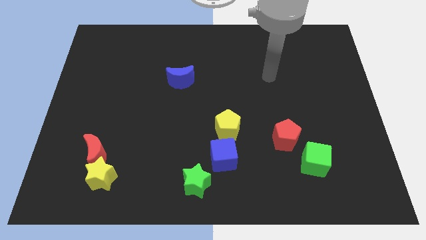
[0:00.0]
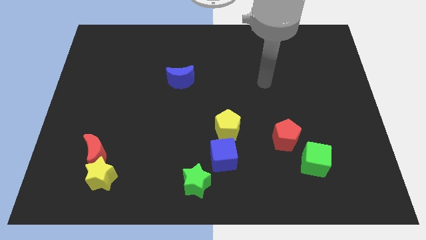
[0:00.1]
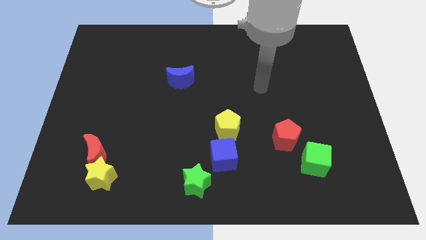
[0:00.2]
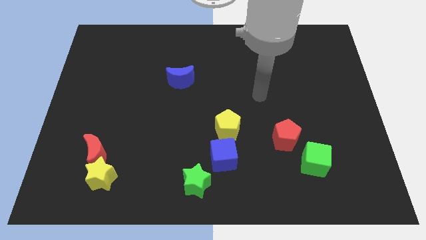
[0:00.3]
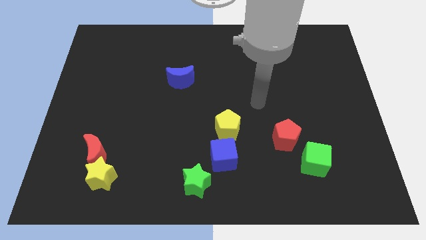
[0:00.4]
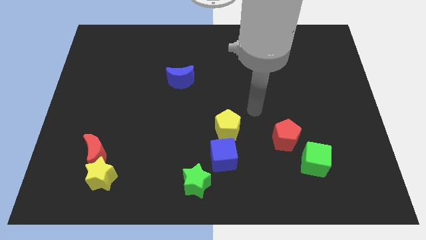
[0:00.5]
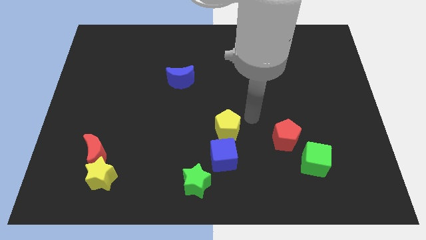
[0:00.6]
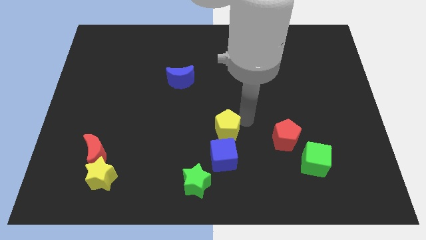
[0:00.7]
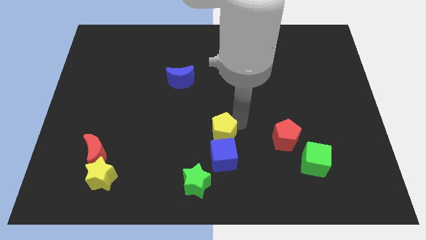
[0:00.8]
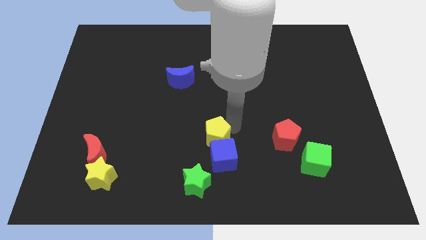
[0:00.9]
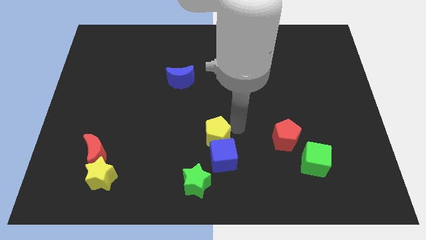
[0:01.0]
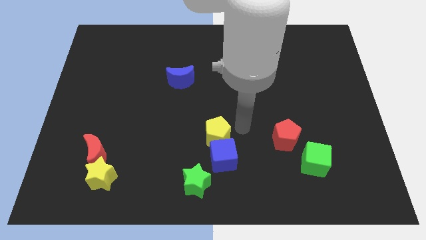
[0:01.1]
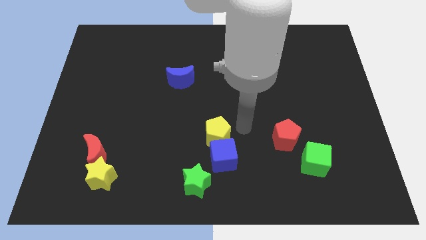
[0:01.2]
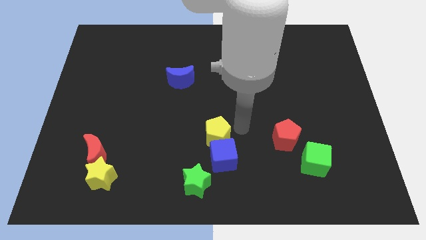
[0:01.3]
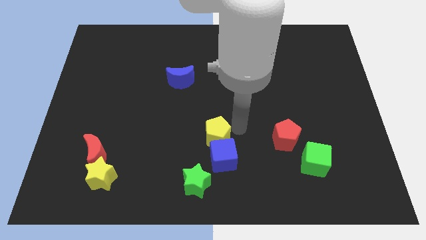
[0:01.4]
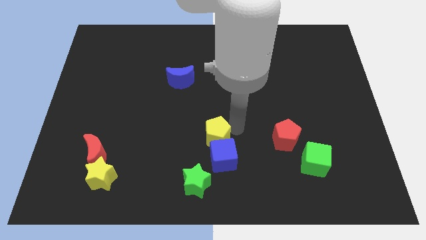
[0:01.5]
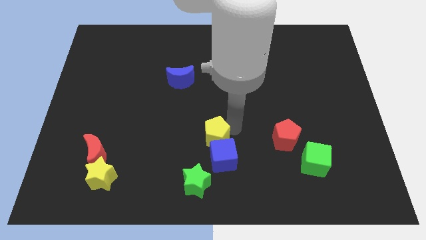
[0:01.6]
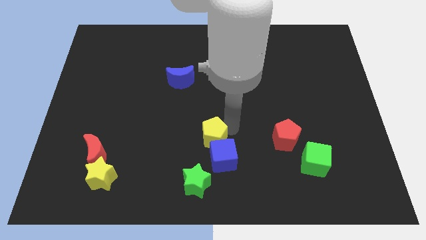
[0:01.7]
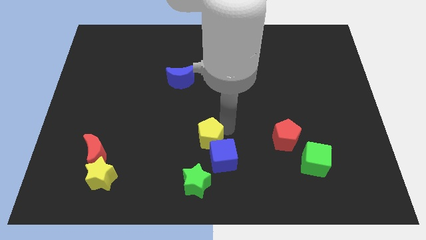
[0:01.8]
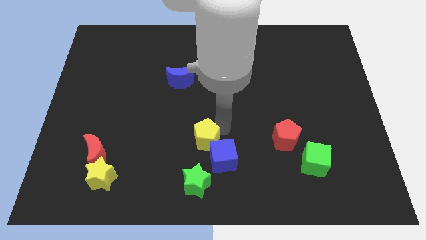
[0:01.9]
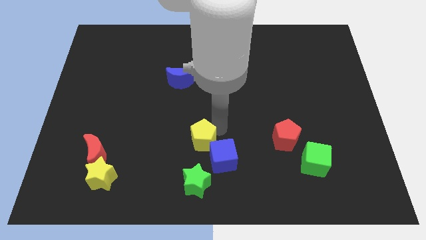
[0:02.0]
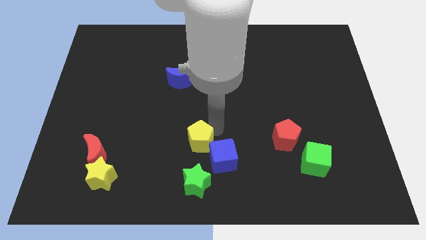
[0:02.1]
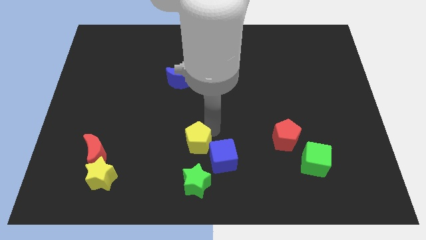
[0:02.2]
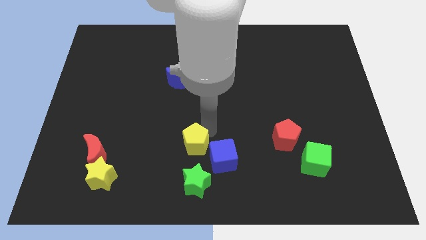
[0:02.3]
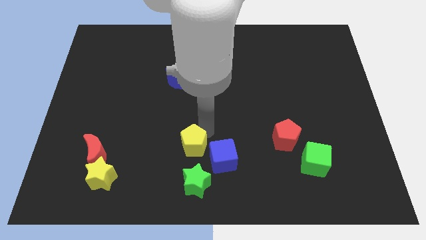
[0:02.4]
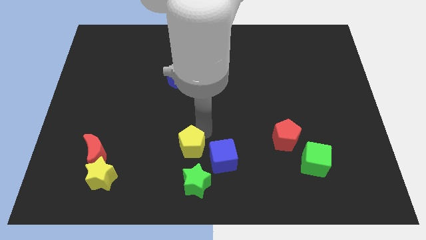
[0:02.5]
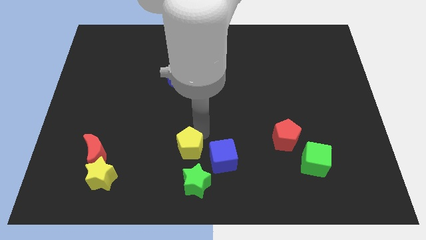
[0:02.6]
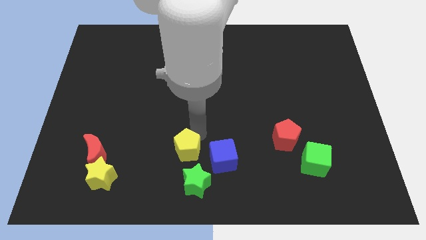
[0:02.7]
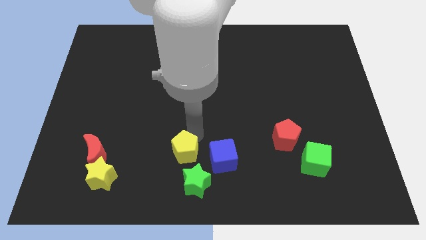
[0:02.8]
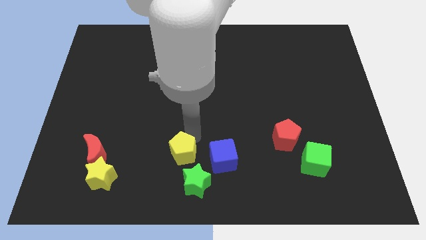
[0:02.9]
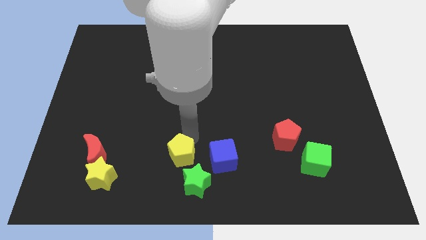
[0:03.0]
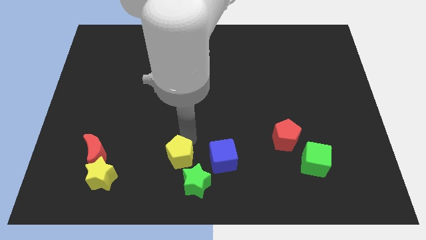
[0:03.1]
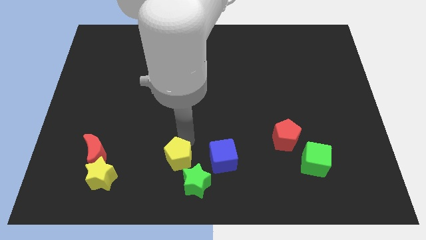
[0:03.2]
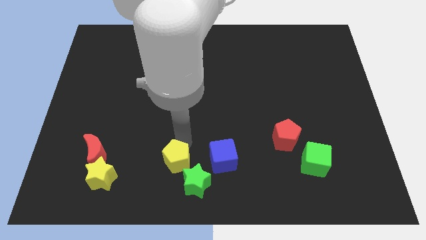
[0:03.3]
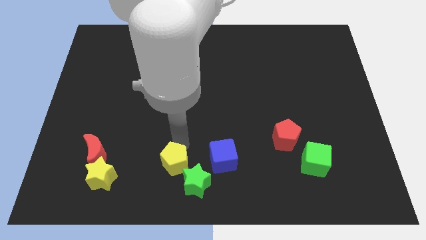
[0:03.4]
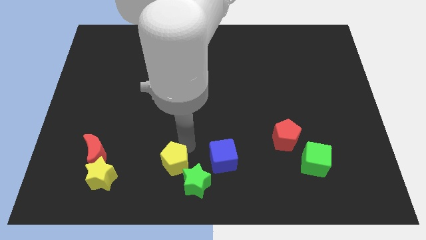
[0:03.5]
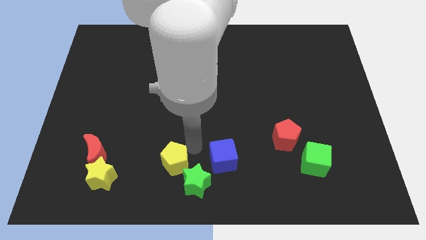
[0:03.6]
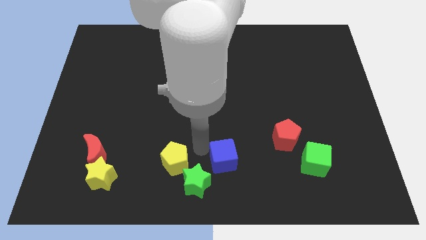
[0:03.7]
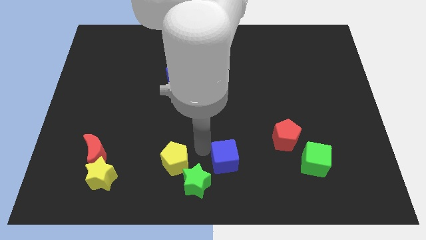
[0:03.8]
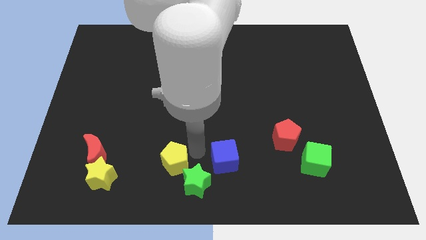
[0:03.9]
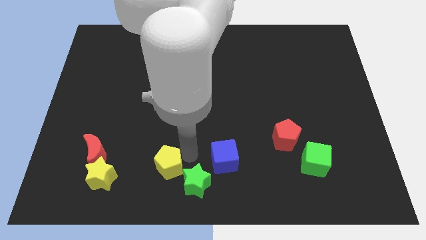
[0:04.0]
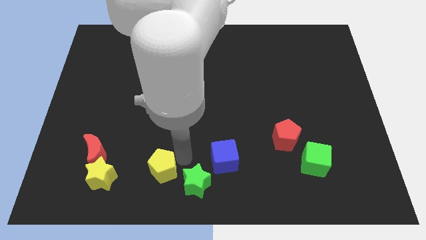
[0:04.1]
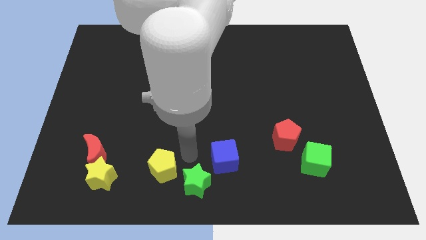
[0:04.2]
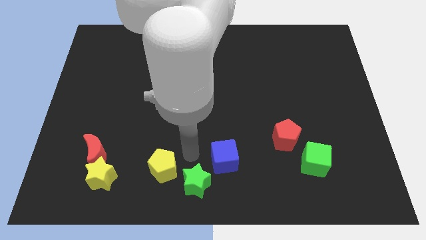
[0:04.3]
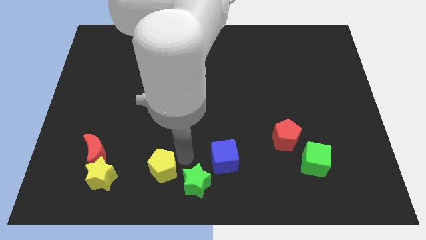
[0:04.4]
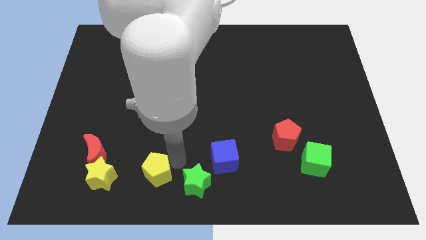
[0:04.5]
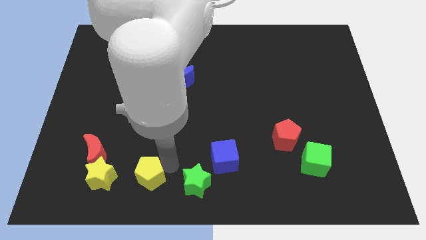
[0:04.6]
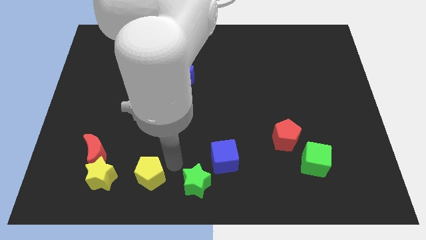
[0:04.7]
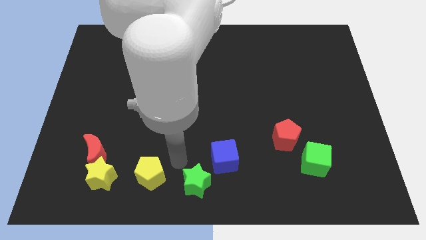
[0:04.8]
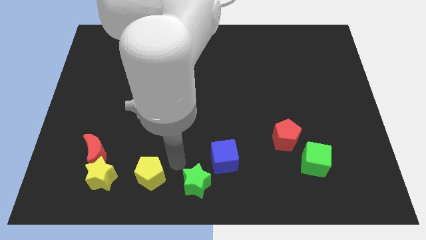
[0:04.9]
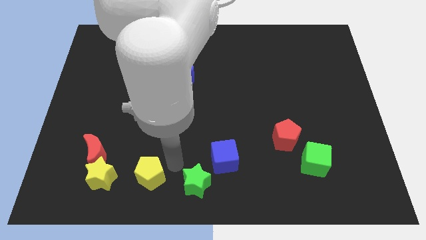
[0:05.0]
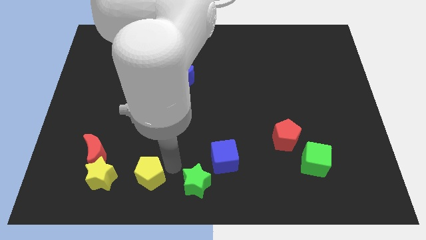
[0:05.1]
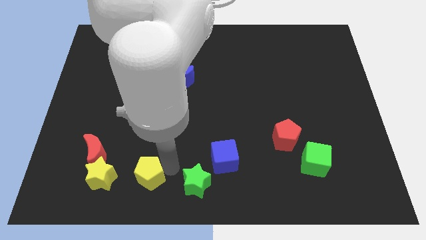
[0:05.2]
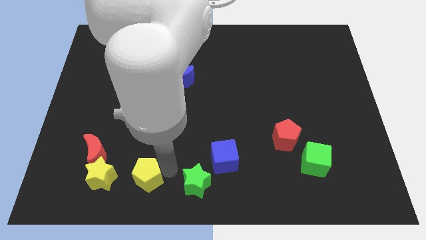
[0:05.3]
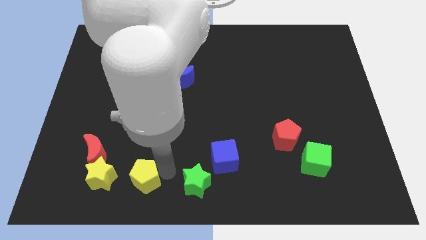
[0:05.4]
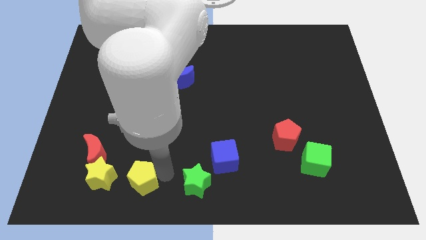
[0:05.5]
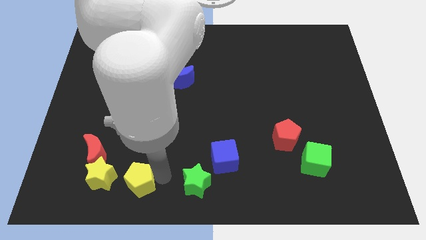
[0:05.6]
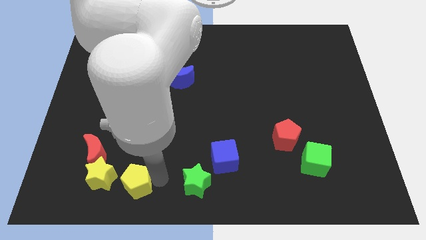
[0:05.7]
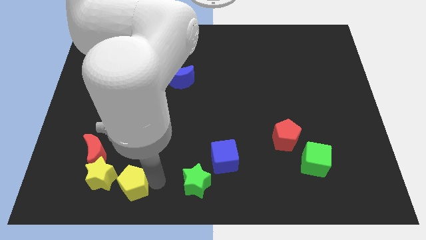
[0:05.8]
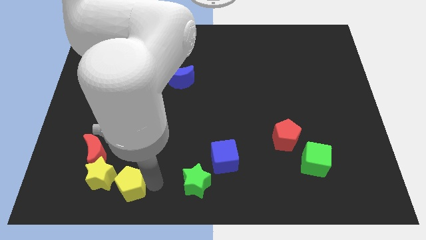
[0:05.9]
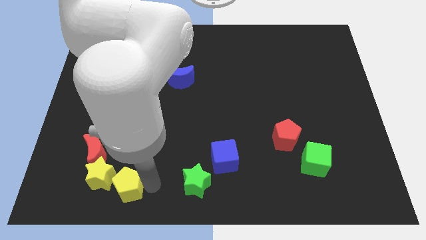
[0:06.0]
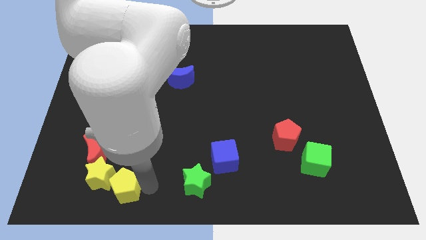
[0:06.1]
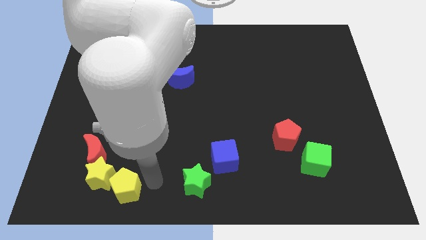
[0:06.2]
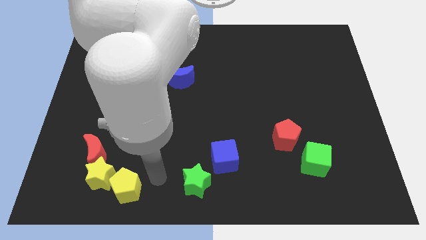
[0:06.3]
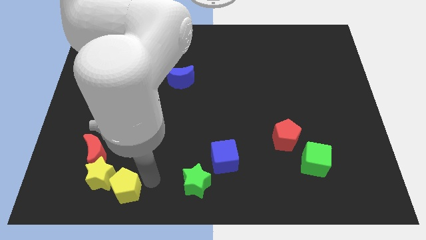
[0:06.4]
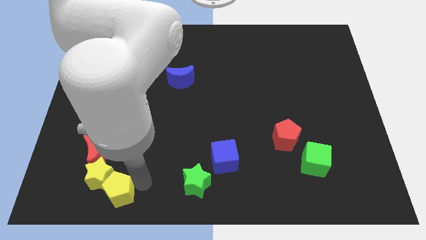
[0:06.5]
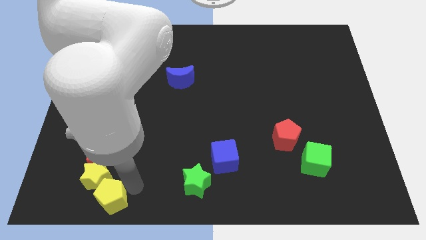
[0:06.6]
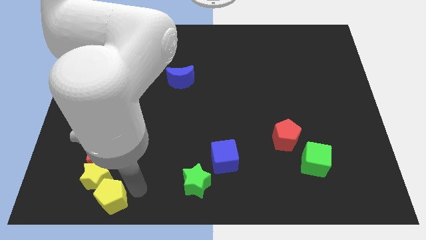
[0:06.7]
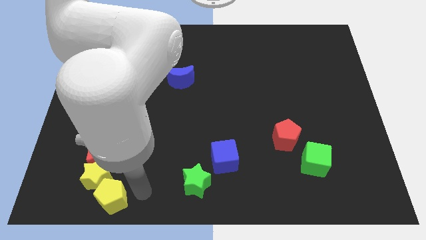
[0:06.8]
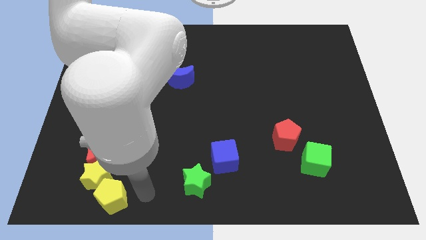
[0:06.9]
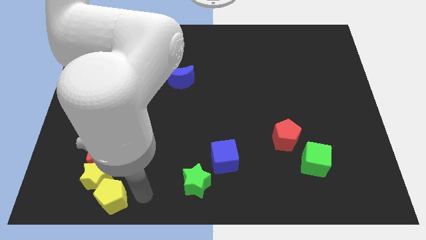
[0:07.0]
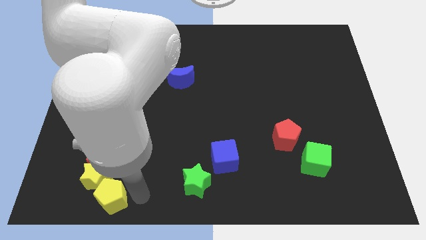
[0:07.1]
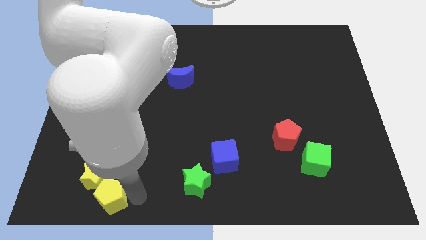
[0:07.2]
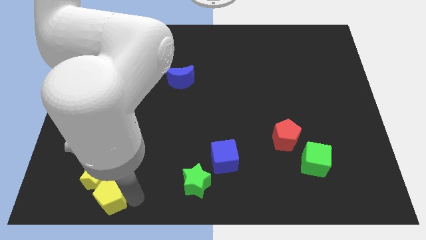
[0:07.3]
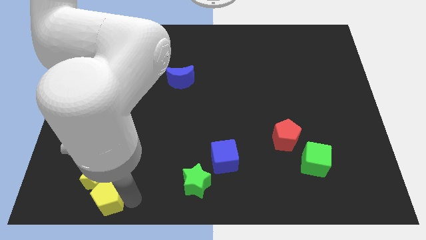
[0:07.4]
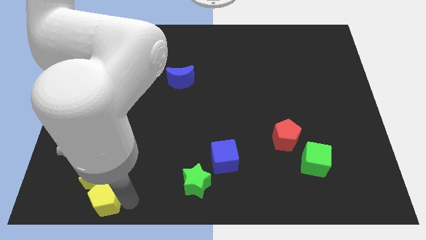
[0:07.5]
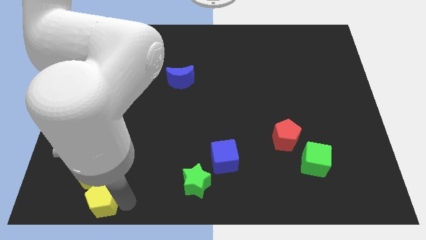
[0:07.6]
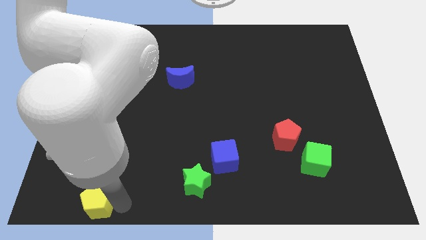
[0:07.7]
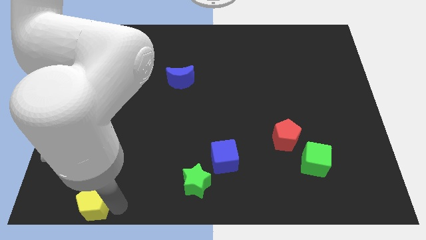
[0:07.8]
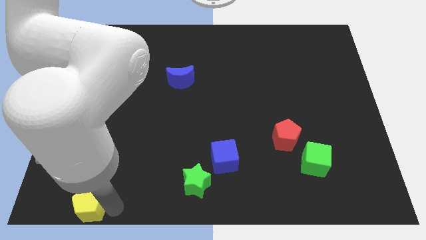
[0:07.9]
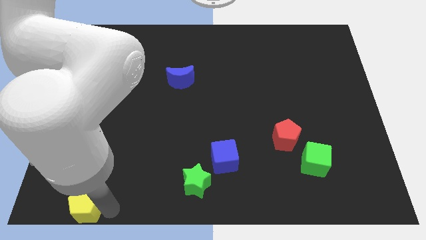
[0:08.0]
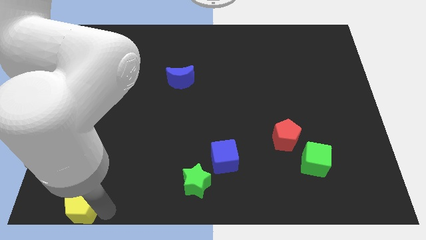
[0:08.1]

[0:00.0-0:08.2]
slide the yellow pentagon to the bottom left
